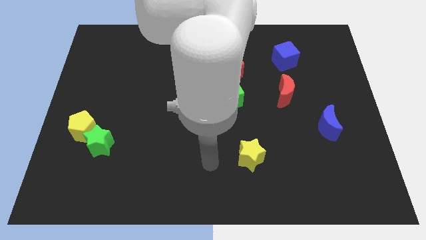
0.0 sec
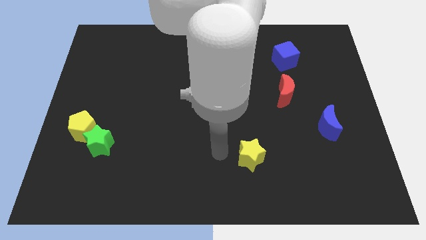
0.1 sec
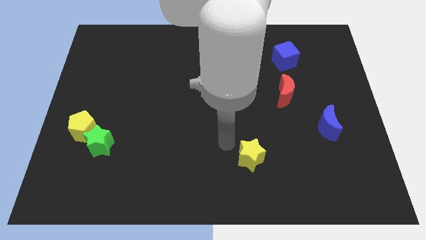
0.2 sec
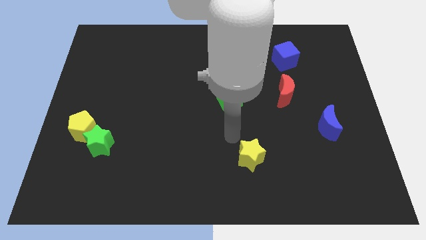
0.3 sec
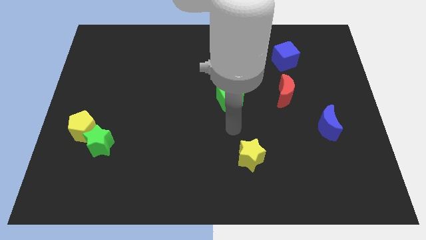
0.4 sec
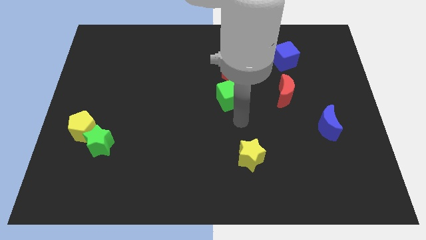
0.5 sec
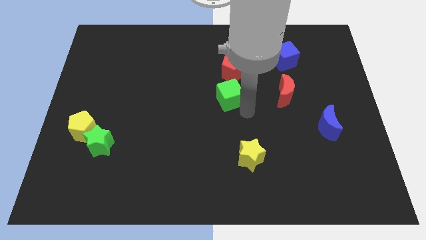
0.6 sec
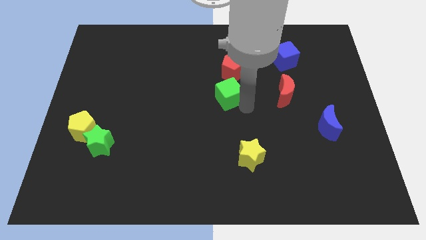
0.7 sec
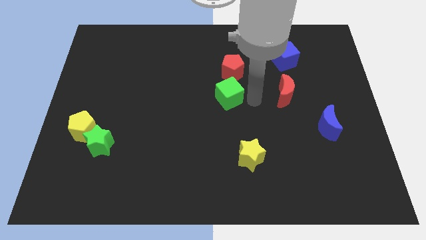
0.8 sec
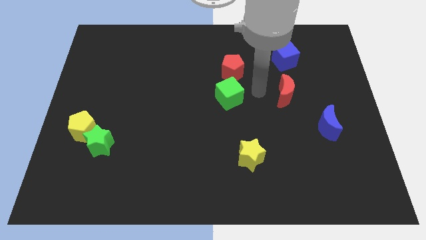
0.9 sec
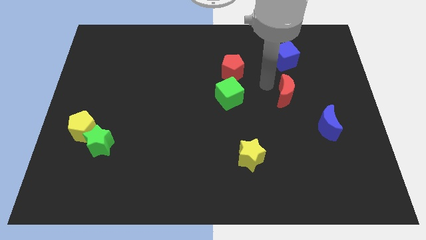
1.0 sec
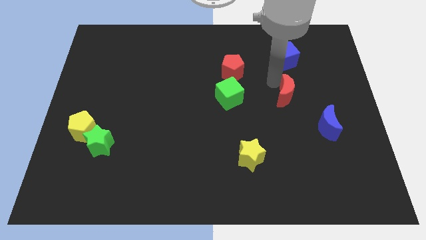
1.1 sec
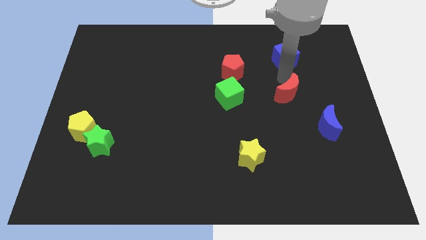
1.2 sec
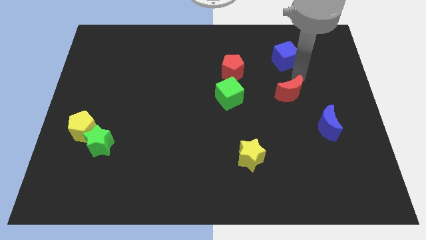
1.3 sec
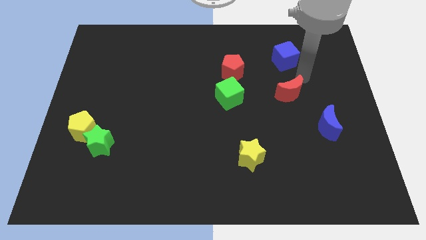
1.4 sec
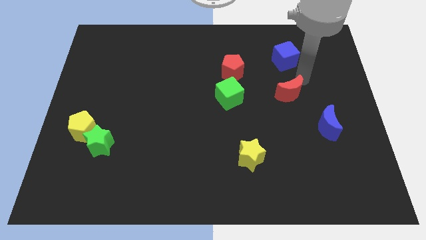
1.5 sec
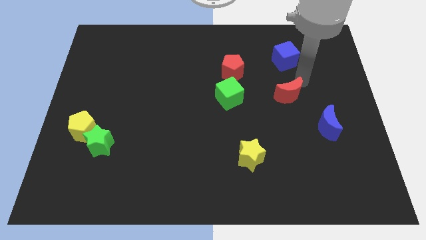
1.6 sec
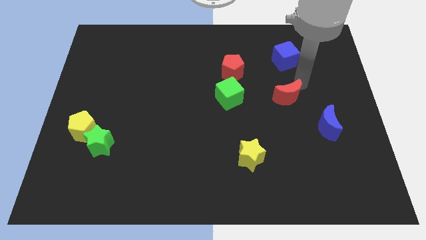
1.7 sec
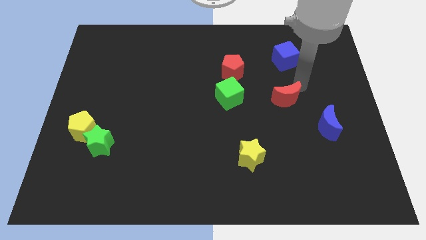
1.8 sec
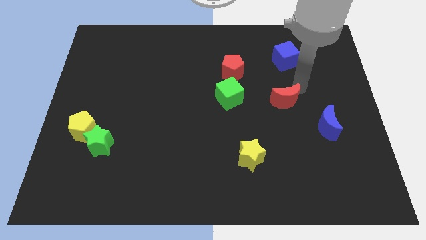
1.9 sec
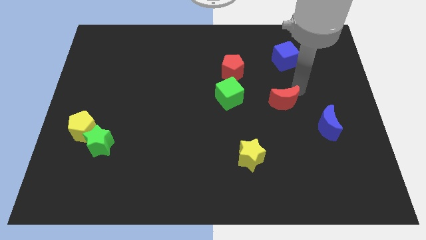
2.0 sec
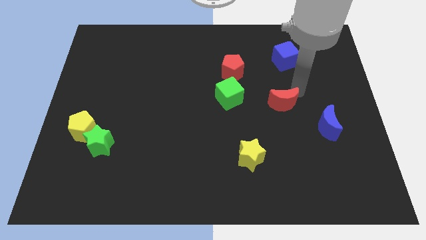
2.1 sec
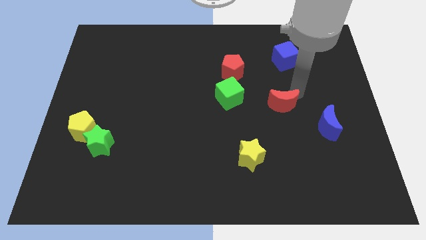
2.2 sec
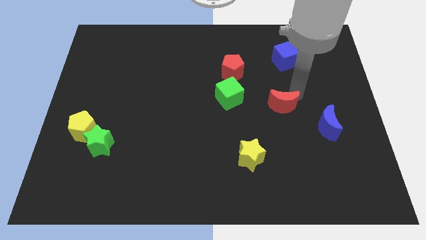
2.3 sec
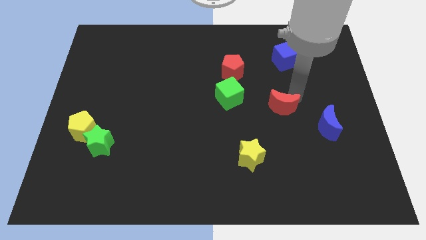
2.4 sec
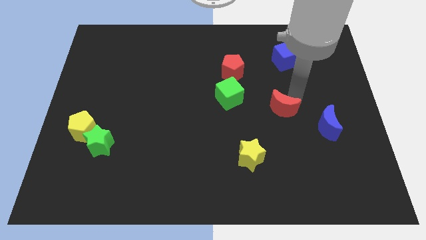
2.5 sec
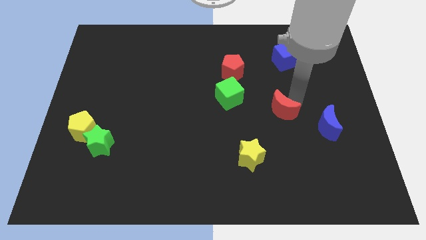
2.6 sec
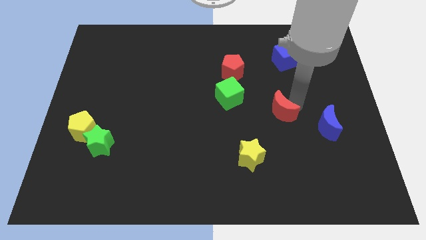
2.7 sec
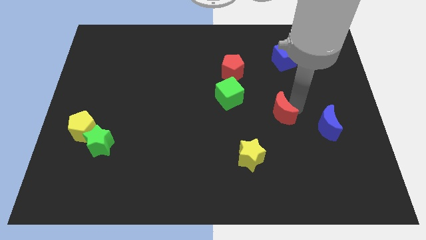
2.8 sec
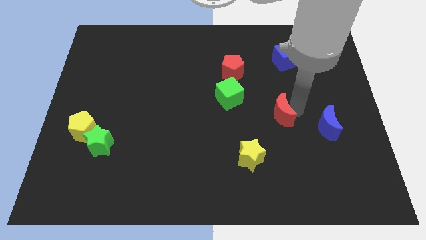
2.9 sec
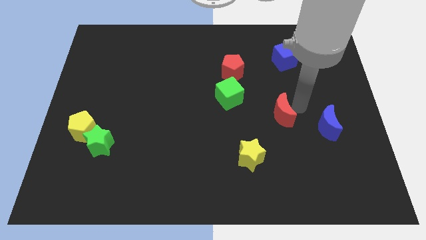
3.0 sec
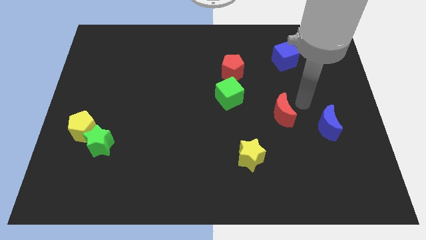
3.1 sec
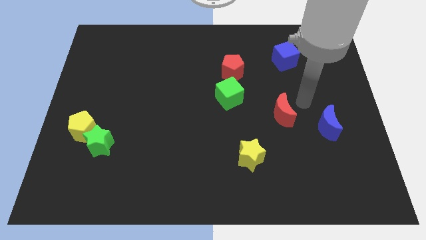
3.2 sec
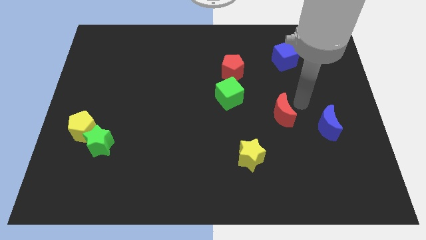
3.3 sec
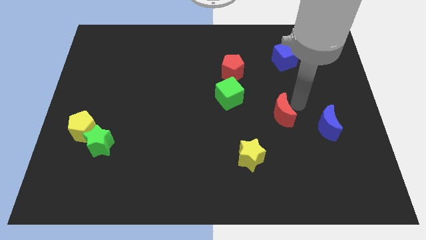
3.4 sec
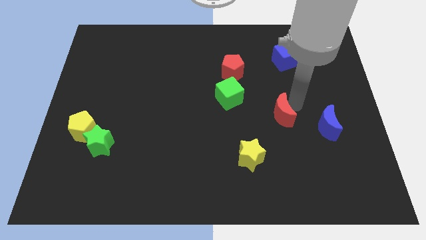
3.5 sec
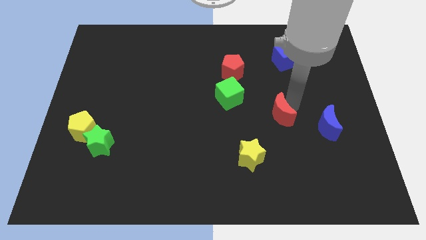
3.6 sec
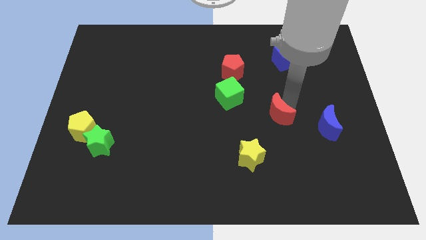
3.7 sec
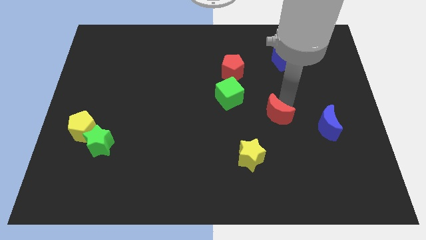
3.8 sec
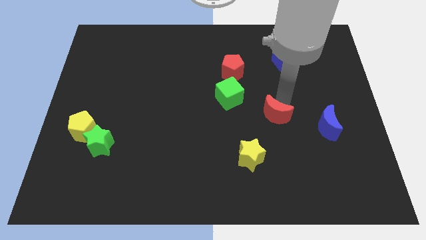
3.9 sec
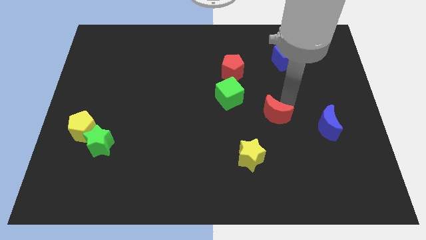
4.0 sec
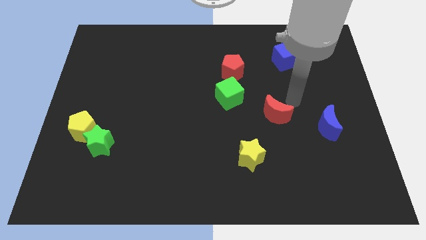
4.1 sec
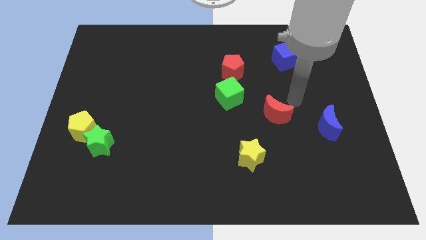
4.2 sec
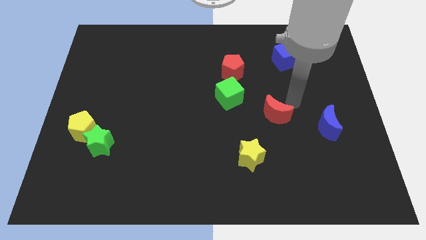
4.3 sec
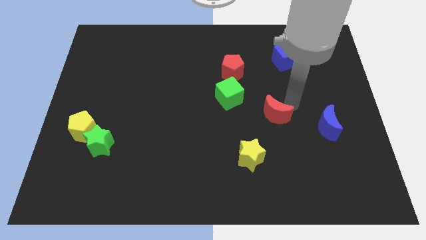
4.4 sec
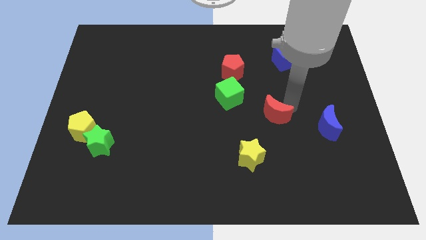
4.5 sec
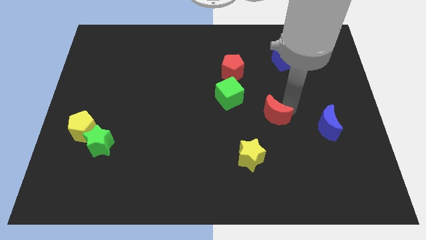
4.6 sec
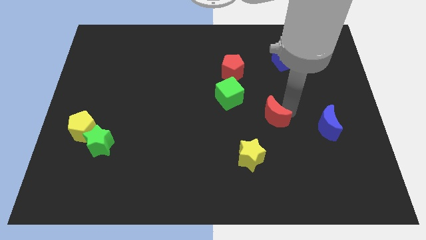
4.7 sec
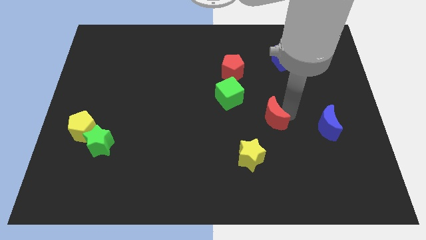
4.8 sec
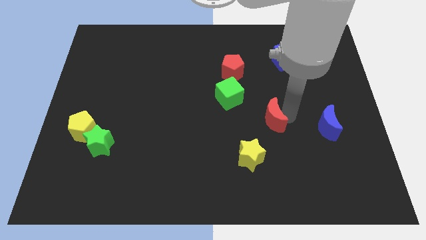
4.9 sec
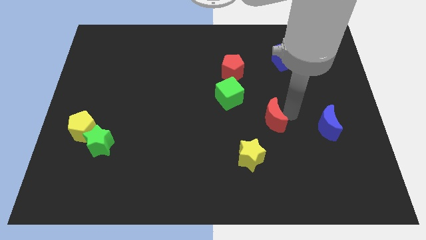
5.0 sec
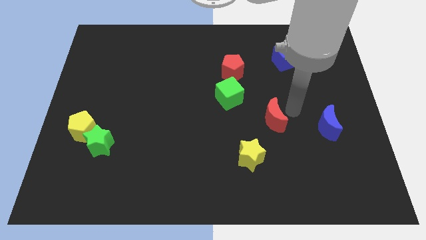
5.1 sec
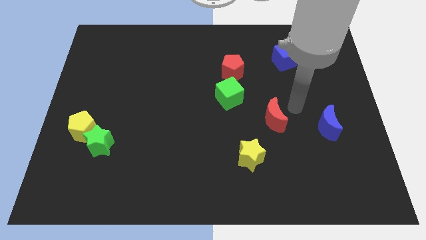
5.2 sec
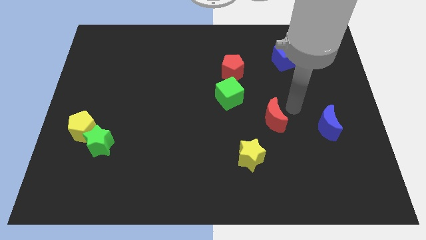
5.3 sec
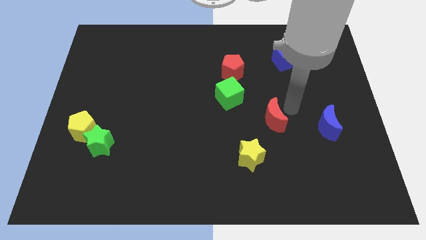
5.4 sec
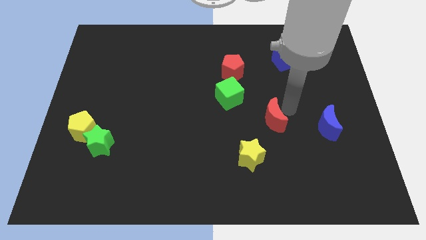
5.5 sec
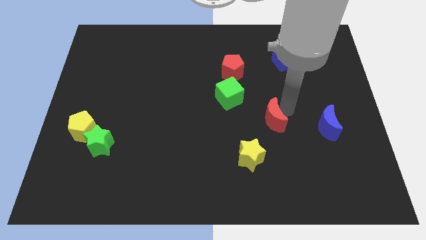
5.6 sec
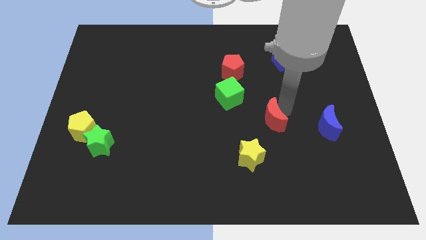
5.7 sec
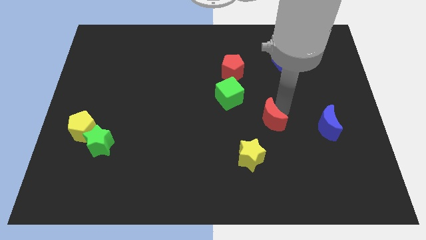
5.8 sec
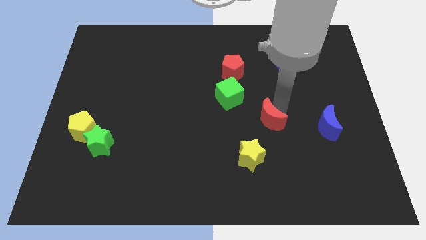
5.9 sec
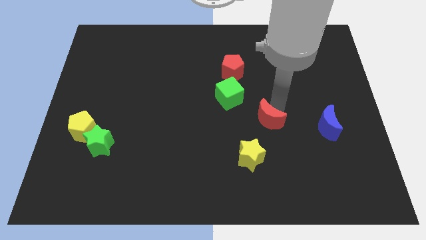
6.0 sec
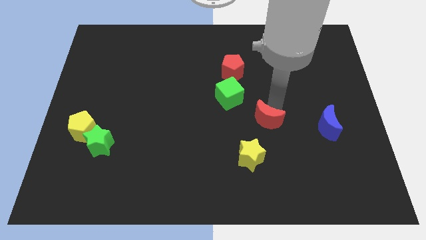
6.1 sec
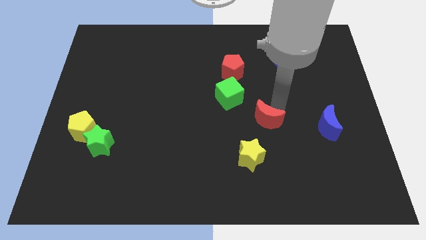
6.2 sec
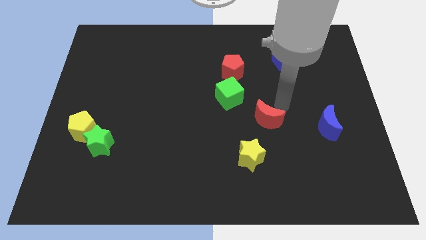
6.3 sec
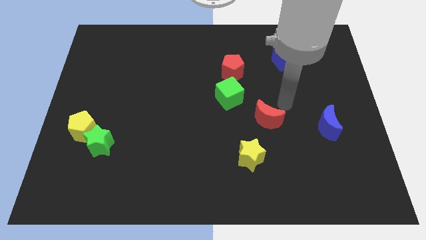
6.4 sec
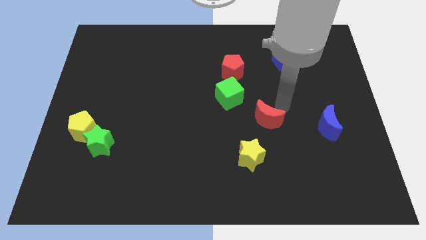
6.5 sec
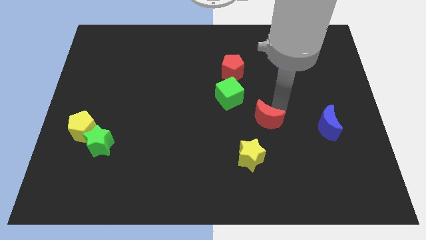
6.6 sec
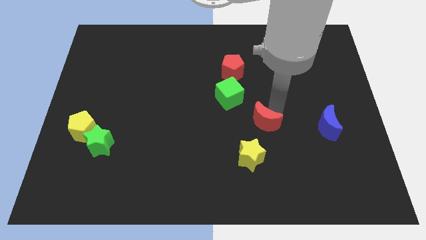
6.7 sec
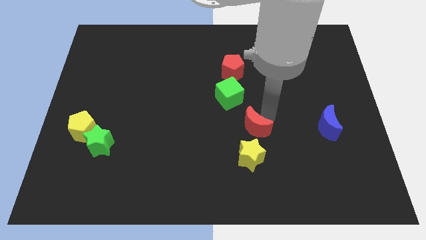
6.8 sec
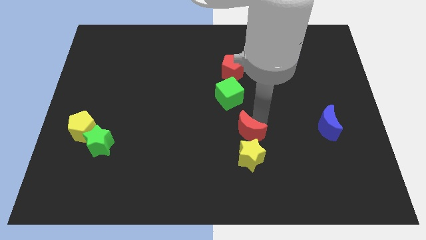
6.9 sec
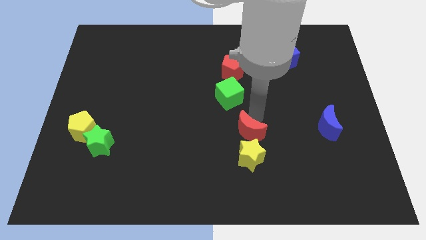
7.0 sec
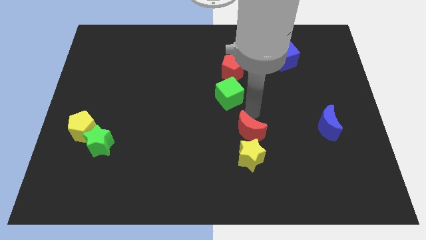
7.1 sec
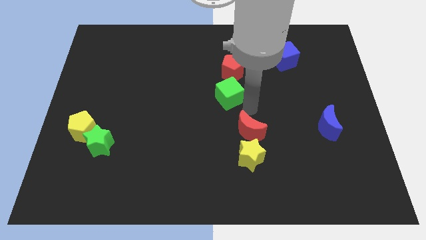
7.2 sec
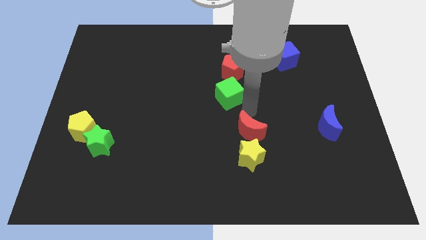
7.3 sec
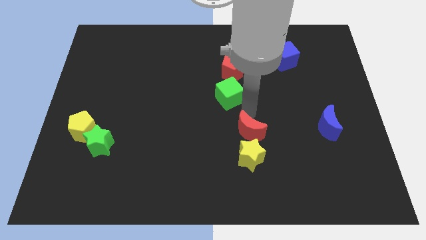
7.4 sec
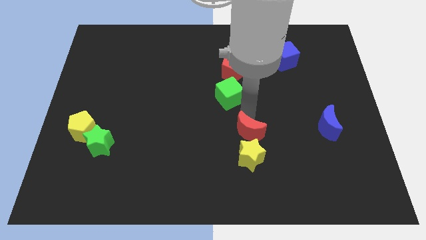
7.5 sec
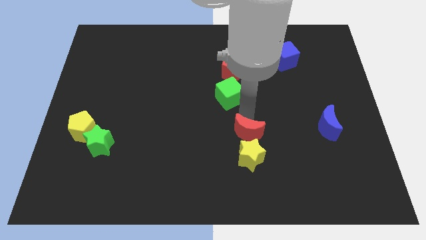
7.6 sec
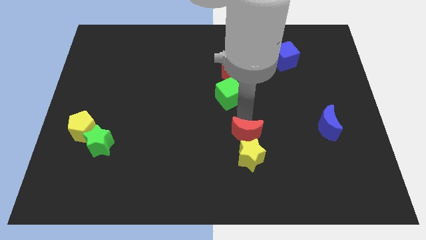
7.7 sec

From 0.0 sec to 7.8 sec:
move the red moon to the yellow star
